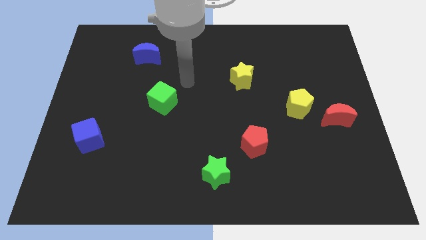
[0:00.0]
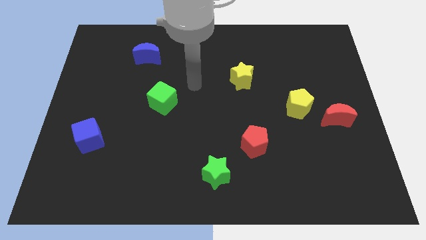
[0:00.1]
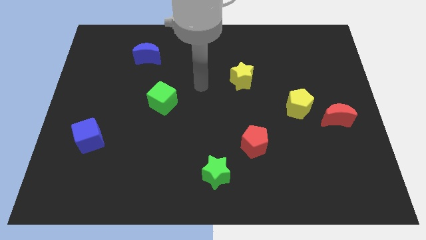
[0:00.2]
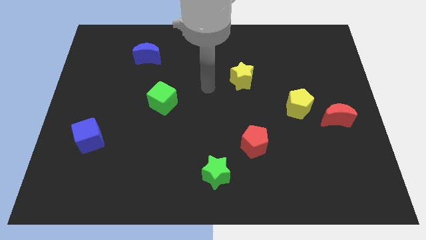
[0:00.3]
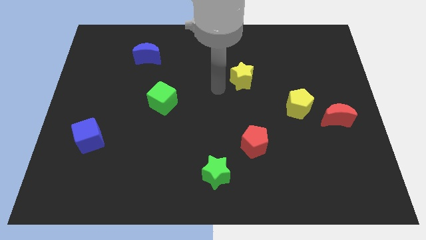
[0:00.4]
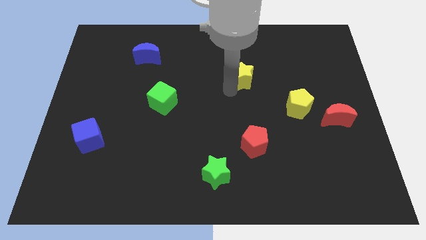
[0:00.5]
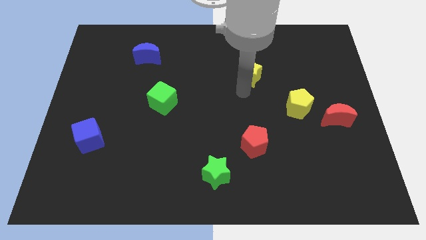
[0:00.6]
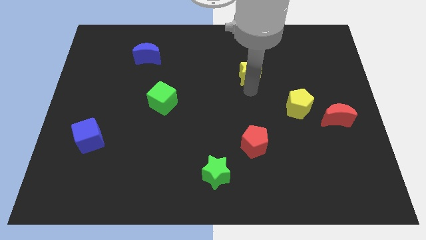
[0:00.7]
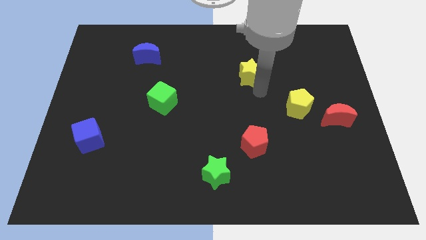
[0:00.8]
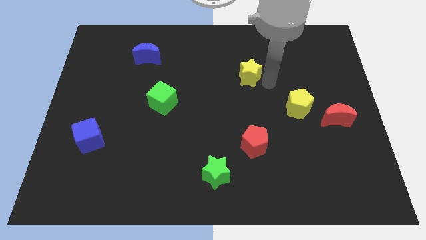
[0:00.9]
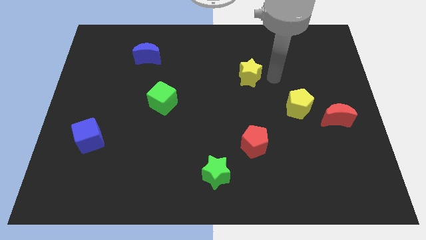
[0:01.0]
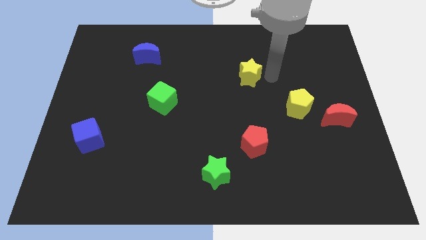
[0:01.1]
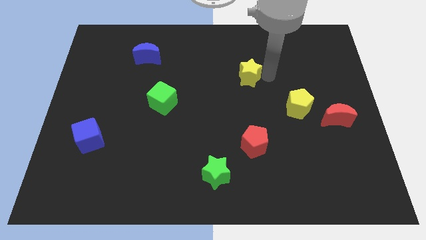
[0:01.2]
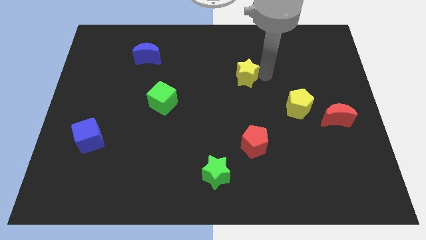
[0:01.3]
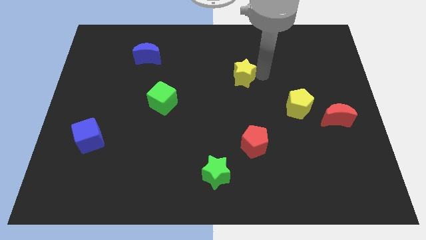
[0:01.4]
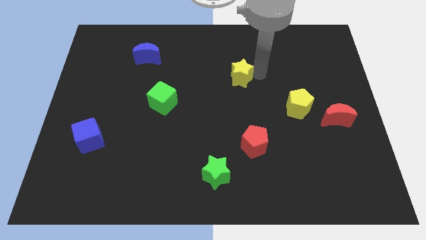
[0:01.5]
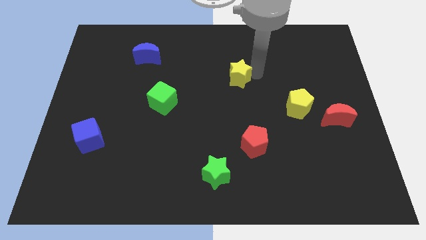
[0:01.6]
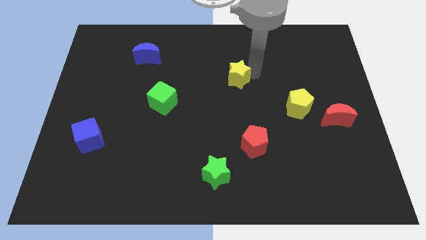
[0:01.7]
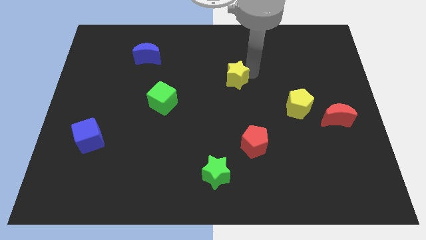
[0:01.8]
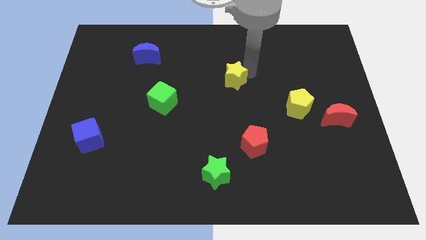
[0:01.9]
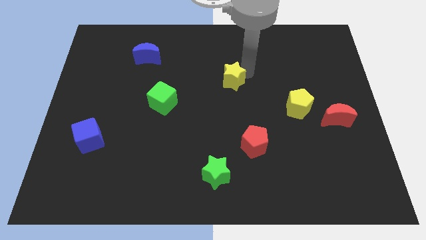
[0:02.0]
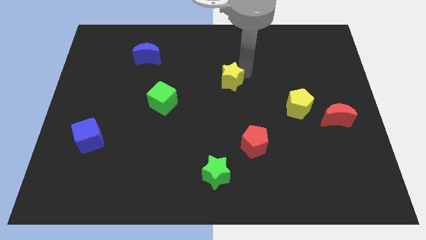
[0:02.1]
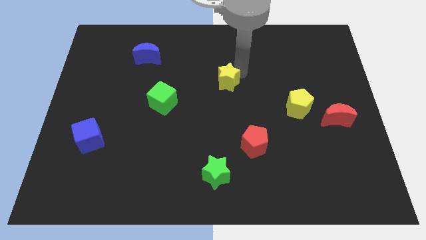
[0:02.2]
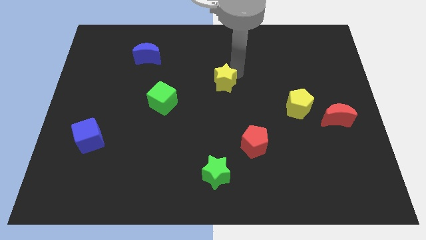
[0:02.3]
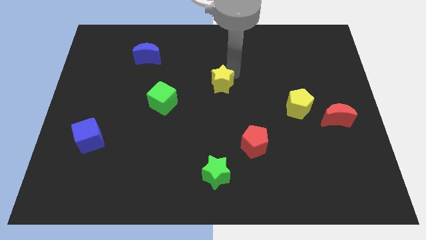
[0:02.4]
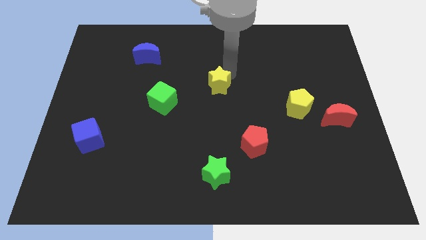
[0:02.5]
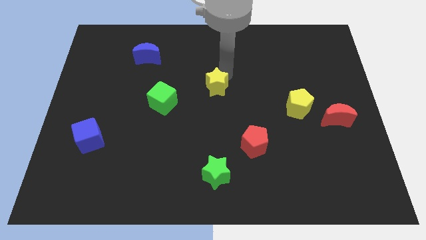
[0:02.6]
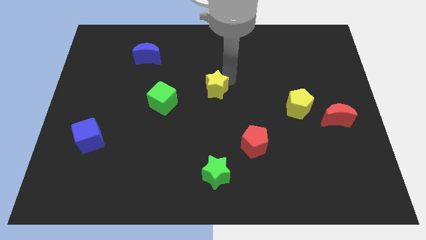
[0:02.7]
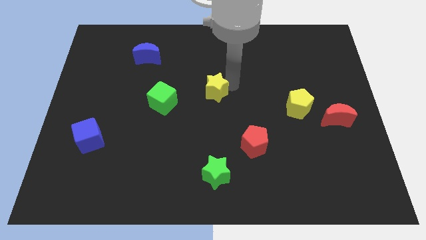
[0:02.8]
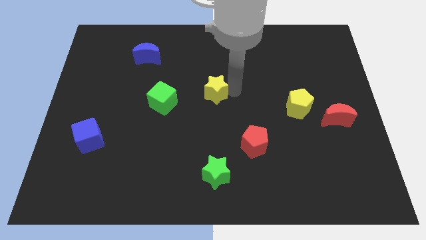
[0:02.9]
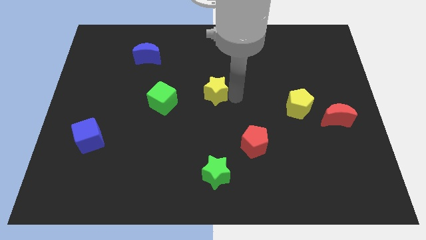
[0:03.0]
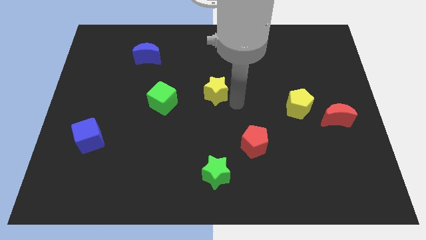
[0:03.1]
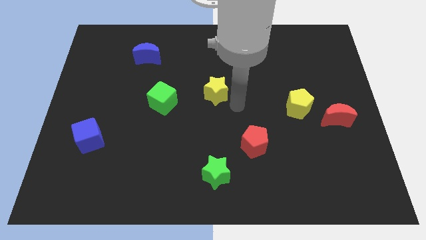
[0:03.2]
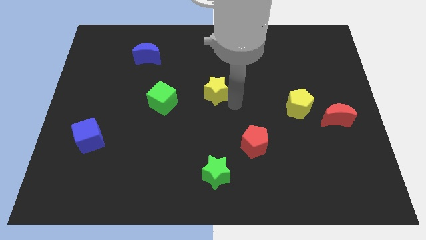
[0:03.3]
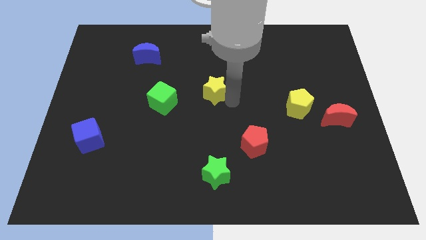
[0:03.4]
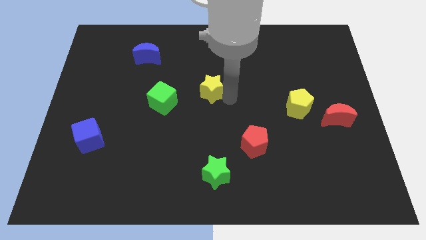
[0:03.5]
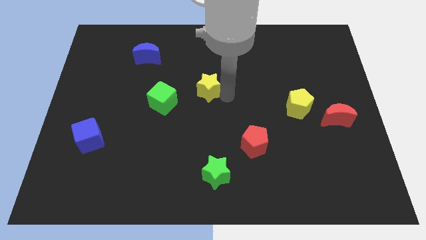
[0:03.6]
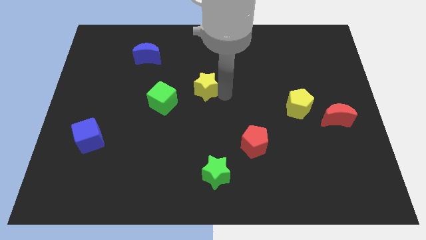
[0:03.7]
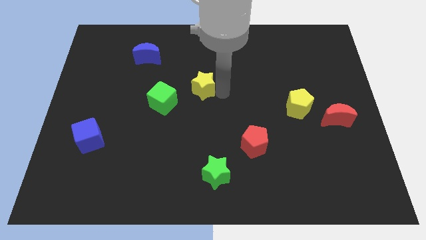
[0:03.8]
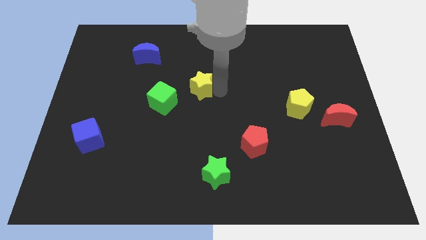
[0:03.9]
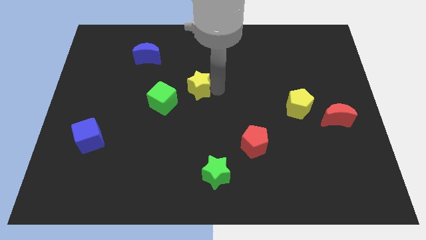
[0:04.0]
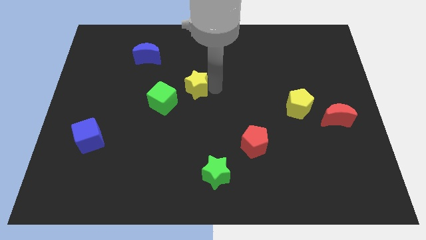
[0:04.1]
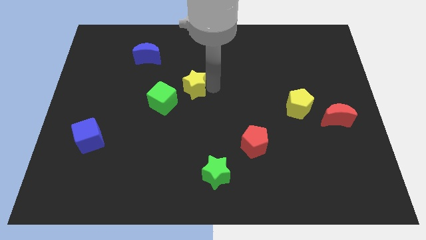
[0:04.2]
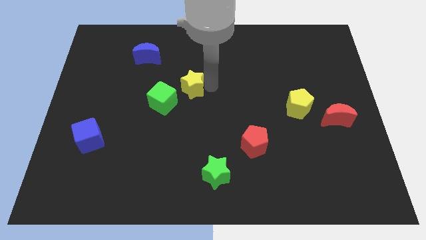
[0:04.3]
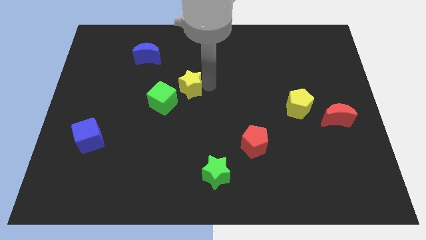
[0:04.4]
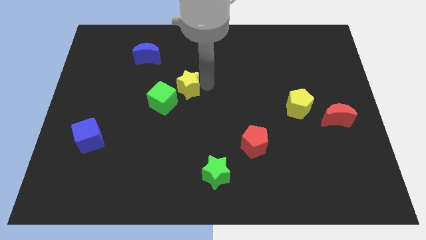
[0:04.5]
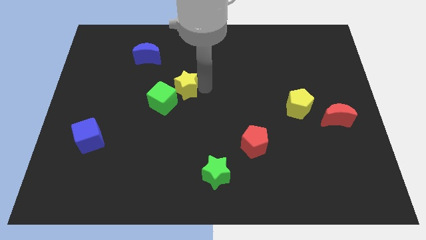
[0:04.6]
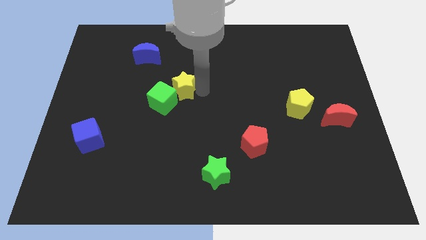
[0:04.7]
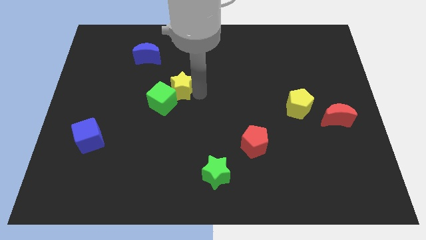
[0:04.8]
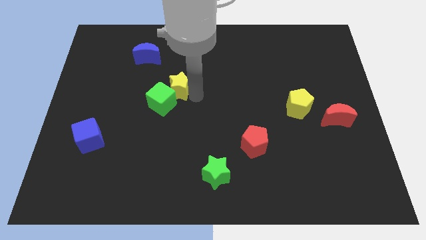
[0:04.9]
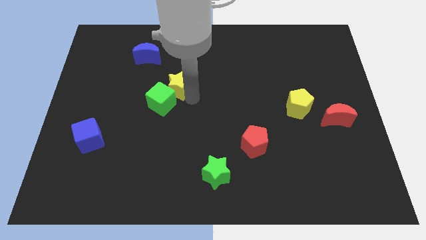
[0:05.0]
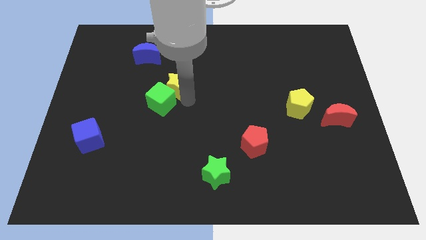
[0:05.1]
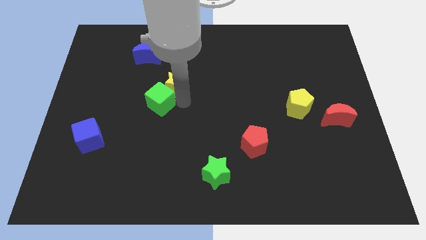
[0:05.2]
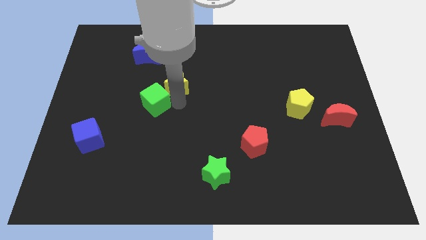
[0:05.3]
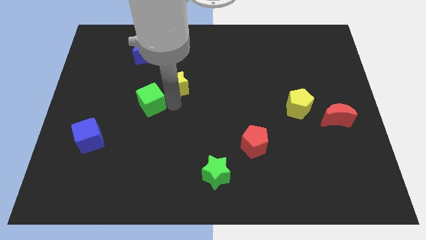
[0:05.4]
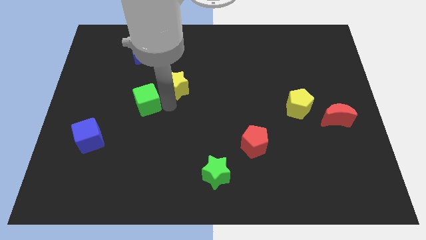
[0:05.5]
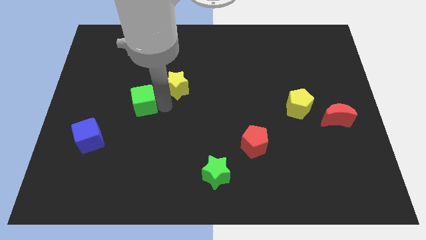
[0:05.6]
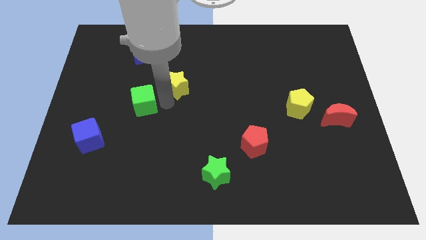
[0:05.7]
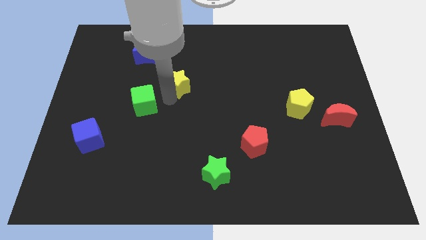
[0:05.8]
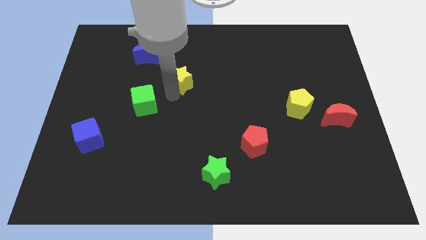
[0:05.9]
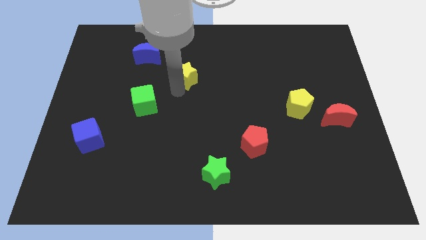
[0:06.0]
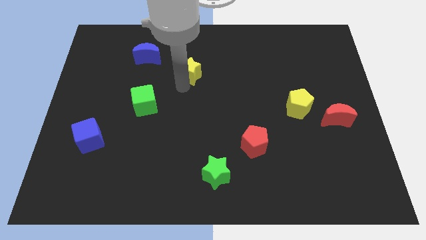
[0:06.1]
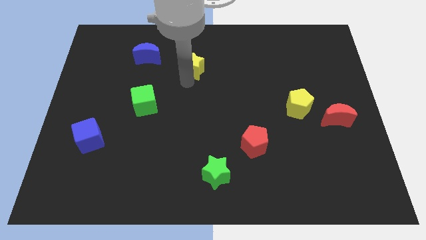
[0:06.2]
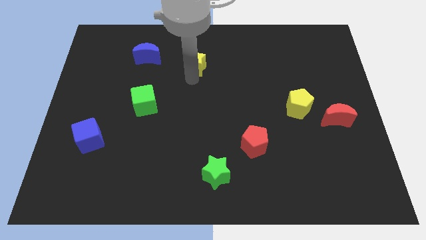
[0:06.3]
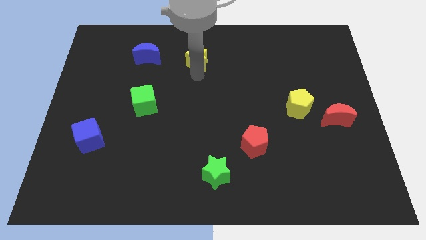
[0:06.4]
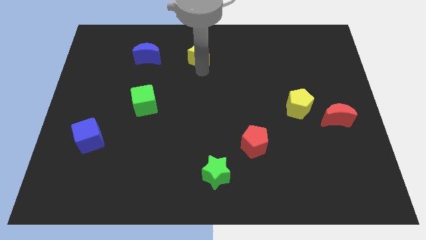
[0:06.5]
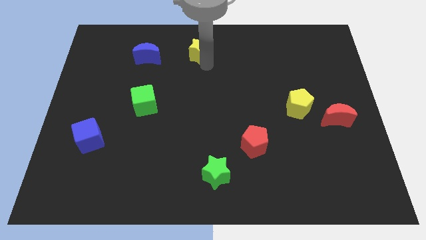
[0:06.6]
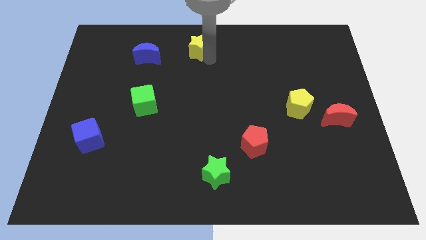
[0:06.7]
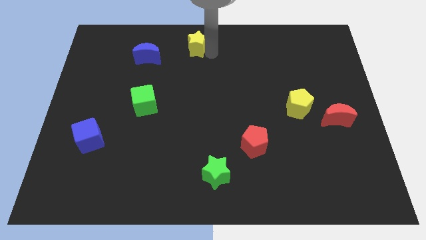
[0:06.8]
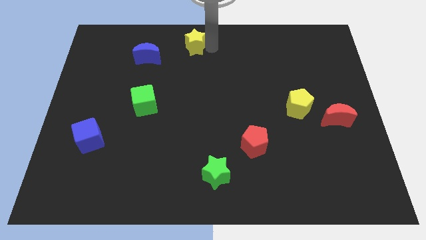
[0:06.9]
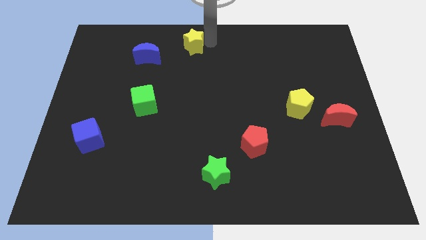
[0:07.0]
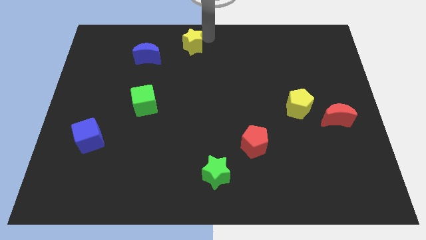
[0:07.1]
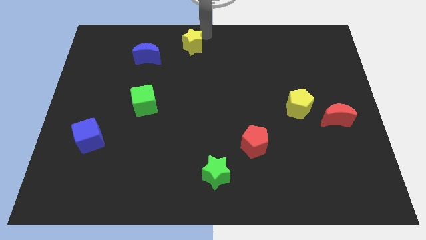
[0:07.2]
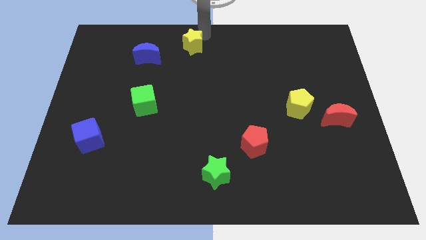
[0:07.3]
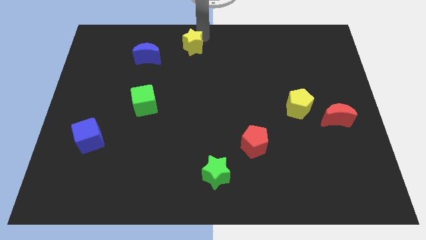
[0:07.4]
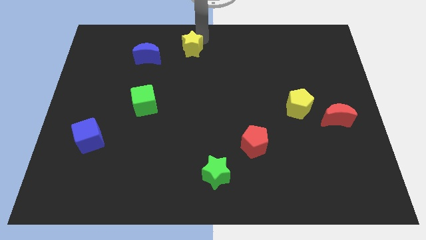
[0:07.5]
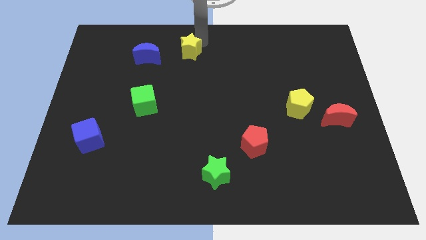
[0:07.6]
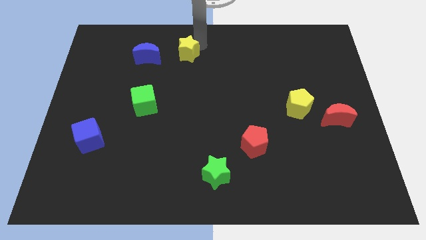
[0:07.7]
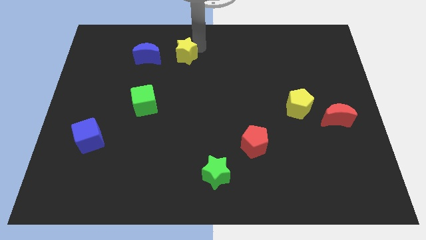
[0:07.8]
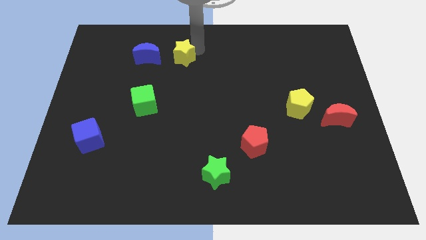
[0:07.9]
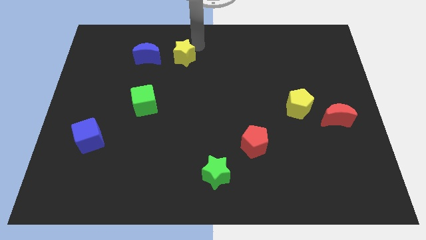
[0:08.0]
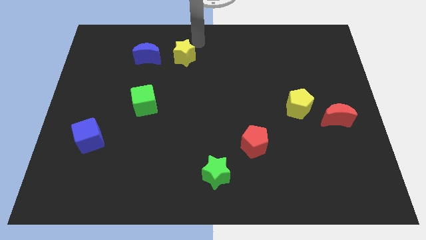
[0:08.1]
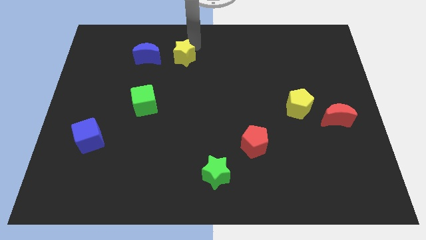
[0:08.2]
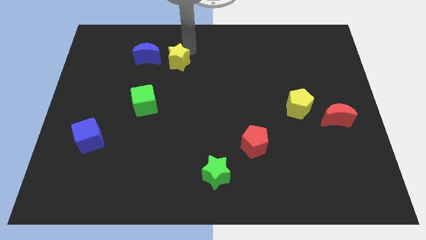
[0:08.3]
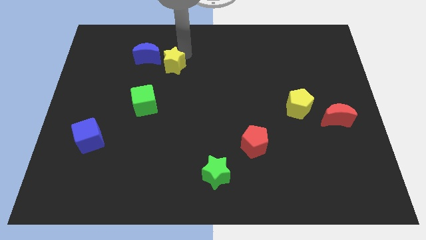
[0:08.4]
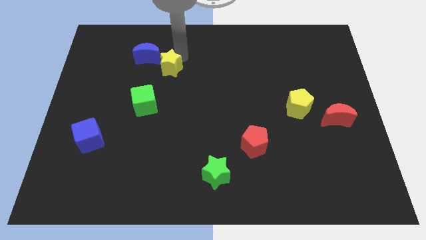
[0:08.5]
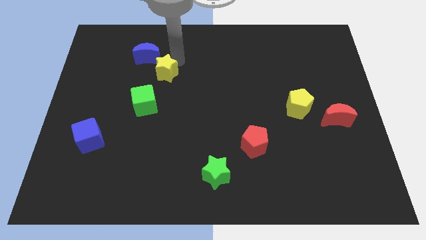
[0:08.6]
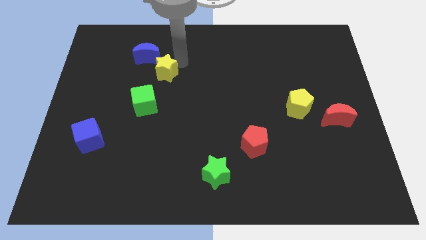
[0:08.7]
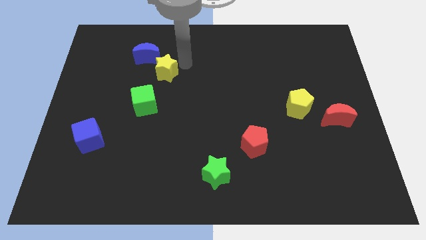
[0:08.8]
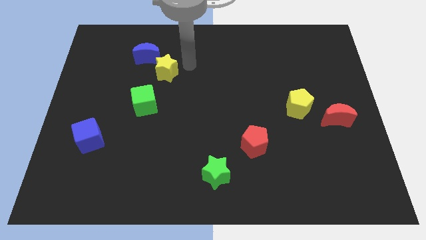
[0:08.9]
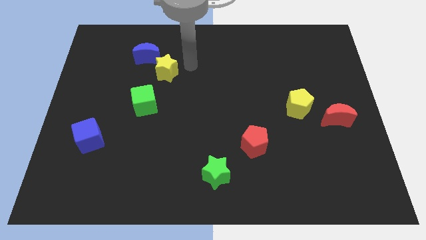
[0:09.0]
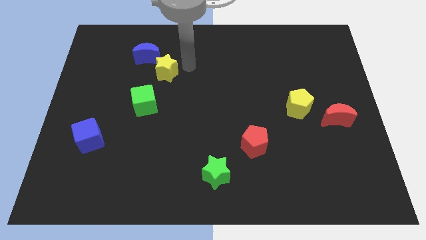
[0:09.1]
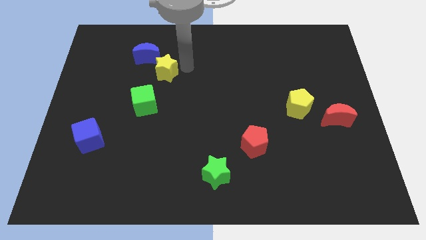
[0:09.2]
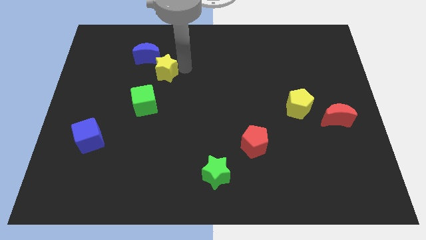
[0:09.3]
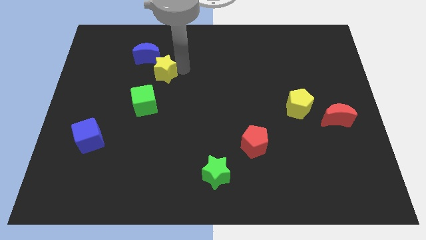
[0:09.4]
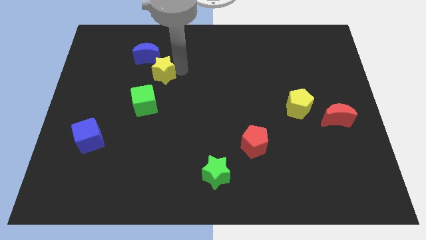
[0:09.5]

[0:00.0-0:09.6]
slide the yellow star left
